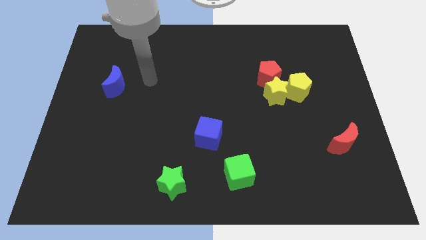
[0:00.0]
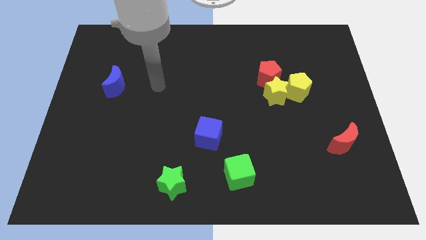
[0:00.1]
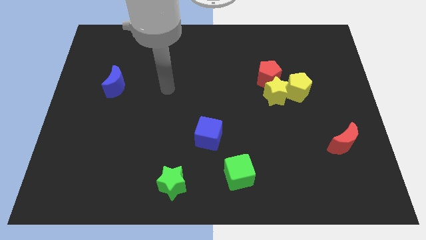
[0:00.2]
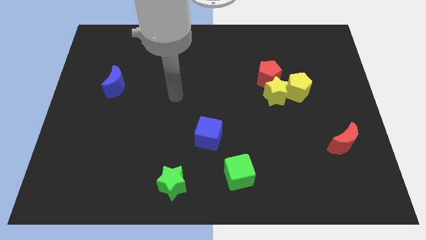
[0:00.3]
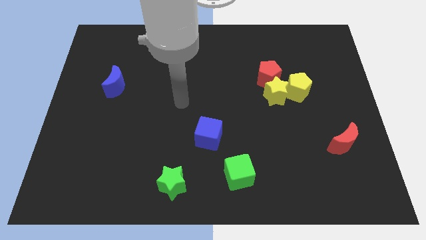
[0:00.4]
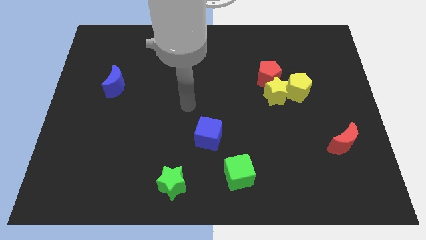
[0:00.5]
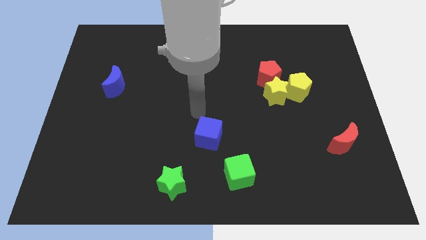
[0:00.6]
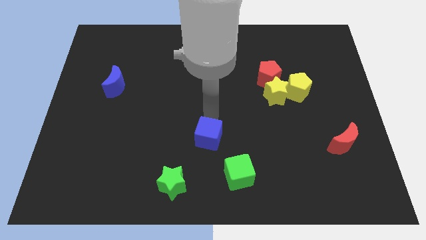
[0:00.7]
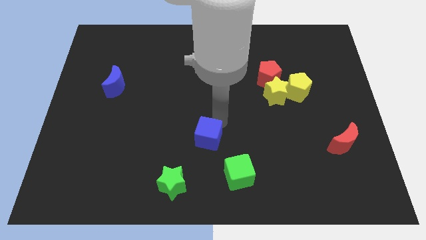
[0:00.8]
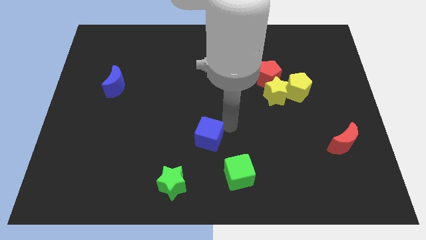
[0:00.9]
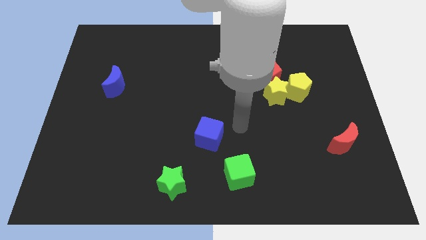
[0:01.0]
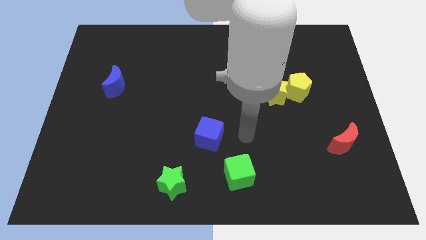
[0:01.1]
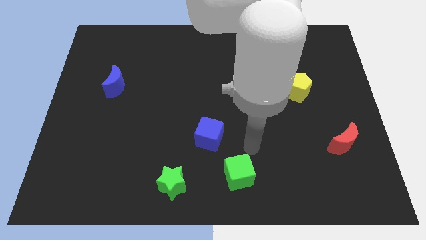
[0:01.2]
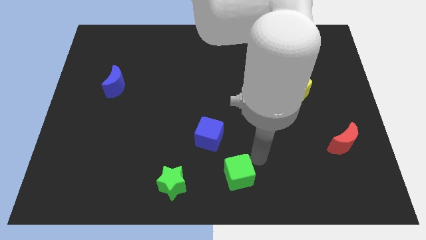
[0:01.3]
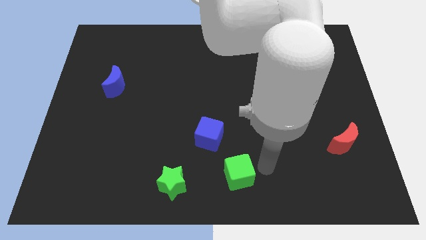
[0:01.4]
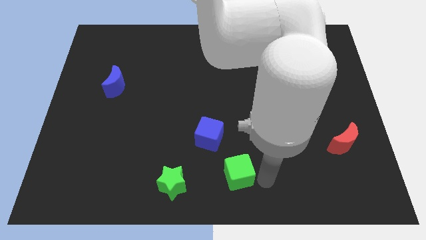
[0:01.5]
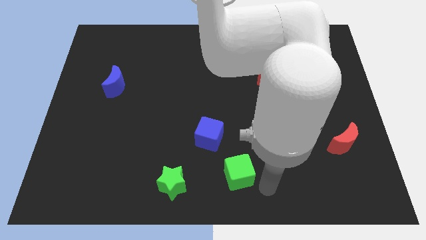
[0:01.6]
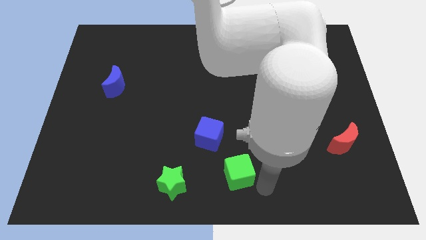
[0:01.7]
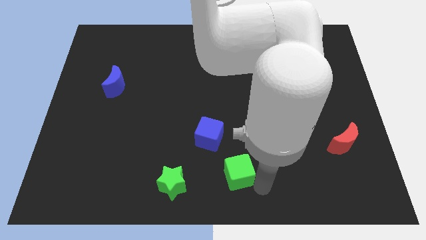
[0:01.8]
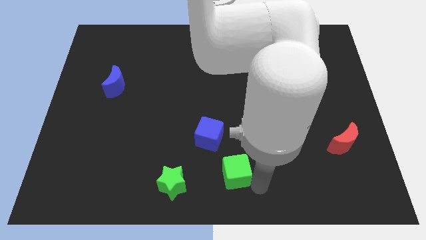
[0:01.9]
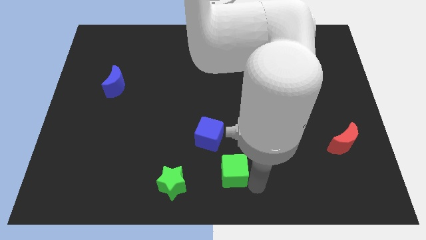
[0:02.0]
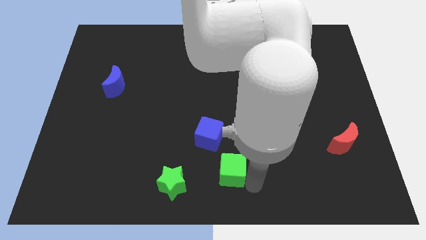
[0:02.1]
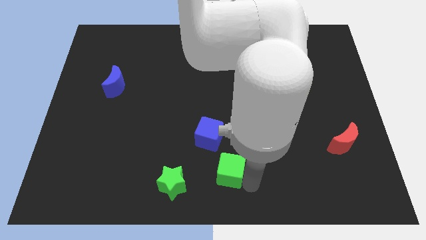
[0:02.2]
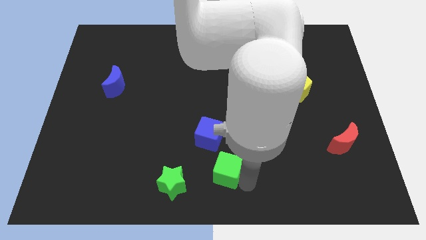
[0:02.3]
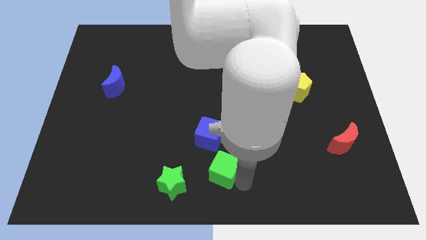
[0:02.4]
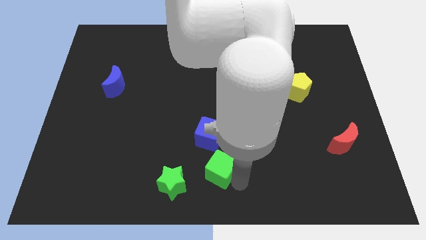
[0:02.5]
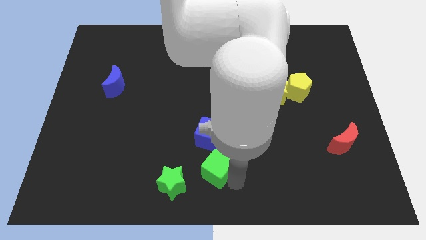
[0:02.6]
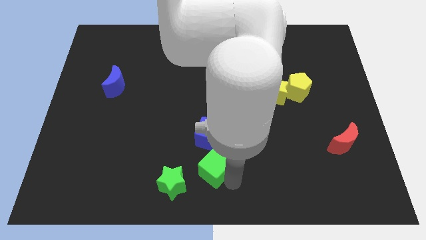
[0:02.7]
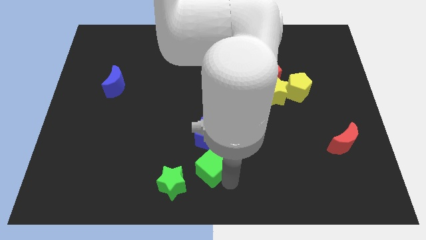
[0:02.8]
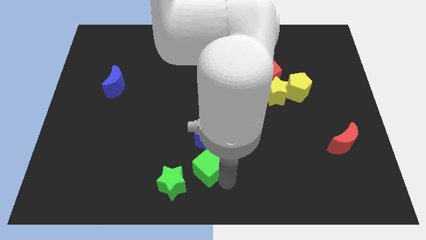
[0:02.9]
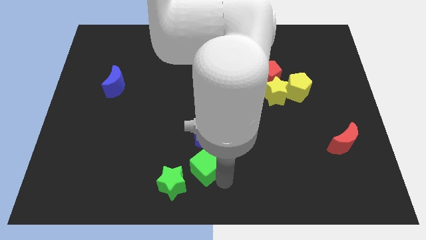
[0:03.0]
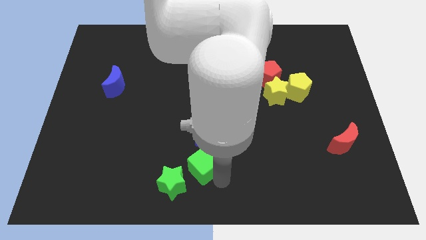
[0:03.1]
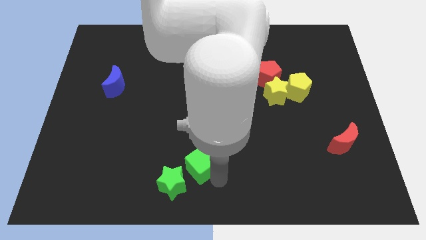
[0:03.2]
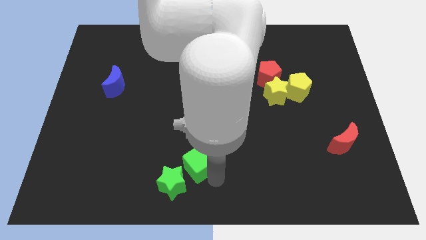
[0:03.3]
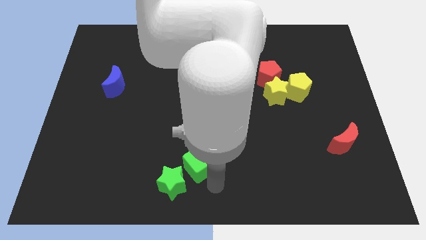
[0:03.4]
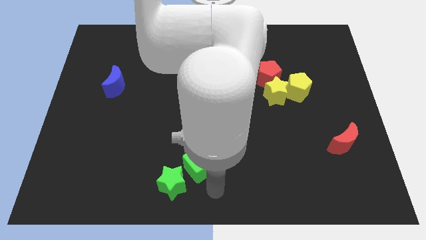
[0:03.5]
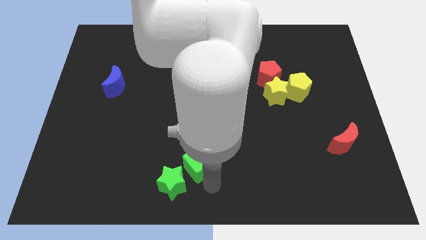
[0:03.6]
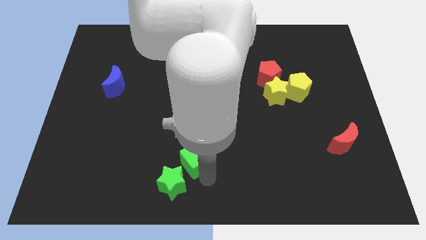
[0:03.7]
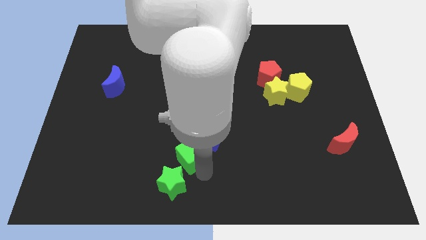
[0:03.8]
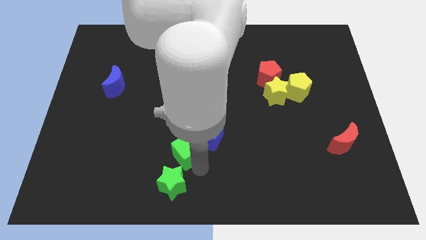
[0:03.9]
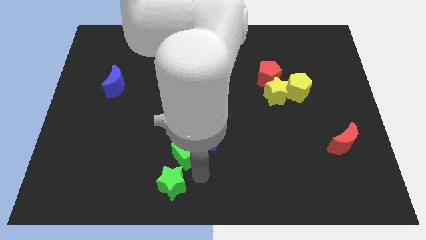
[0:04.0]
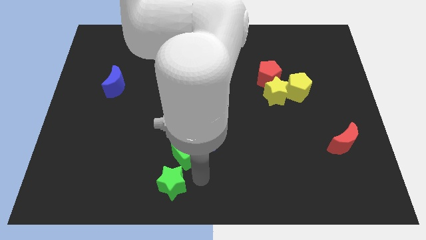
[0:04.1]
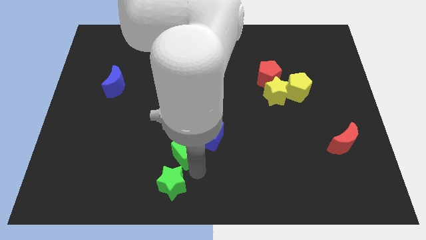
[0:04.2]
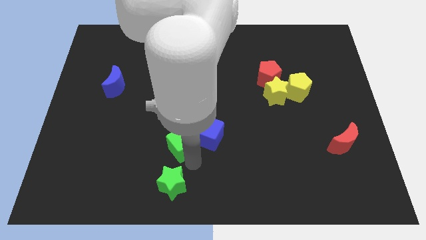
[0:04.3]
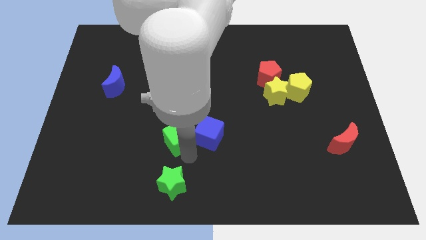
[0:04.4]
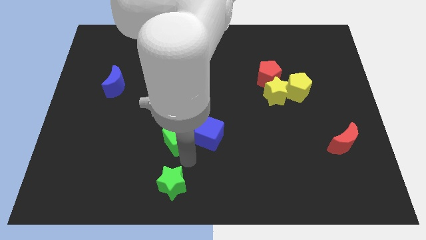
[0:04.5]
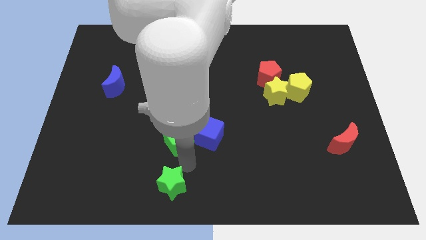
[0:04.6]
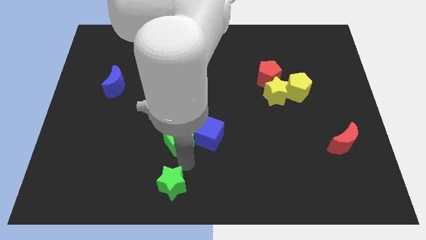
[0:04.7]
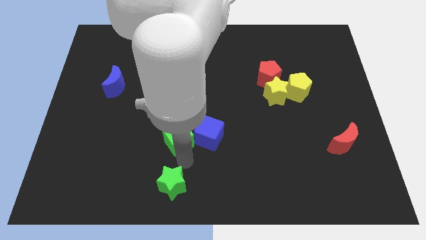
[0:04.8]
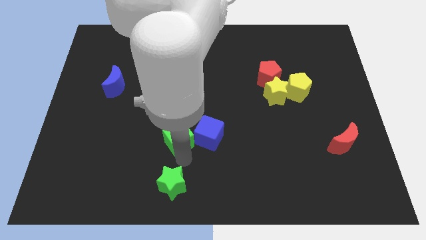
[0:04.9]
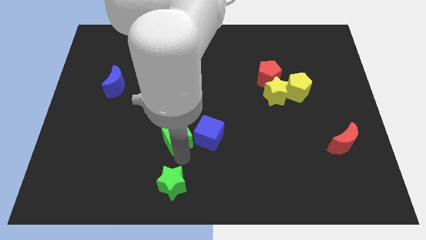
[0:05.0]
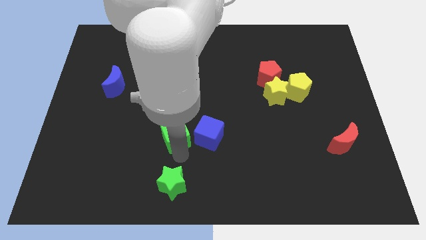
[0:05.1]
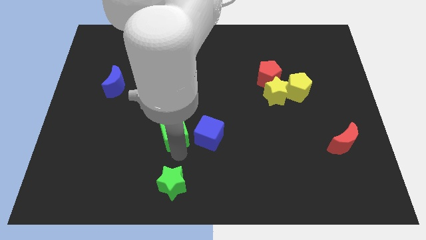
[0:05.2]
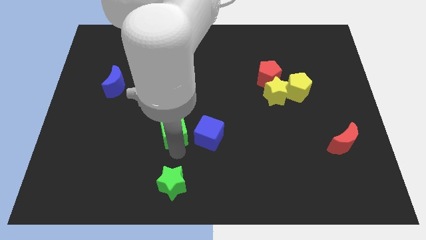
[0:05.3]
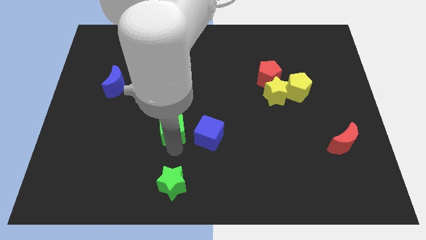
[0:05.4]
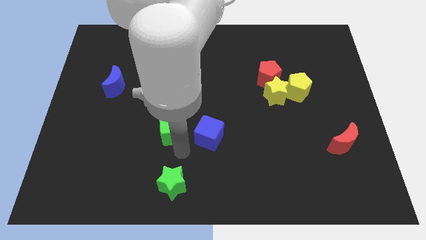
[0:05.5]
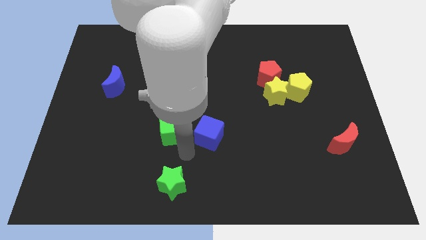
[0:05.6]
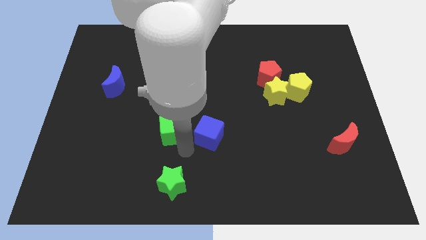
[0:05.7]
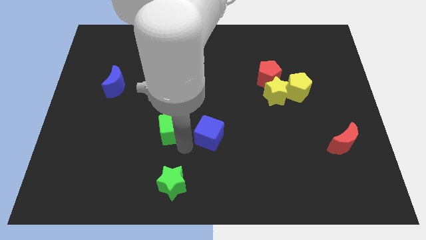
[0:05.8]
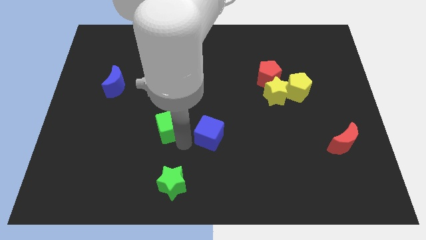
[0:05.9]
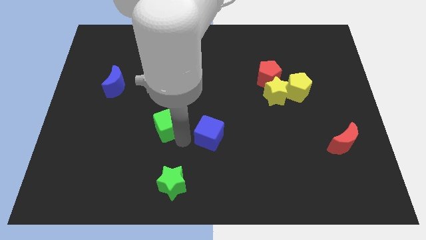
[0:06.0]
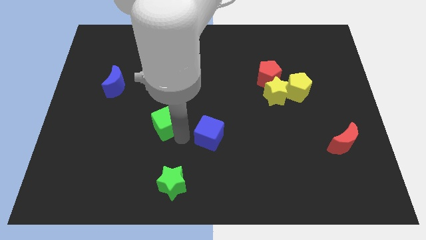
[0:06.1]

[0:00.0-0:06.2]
slide the green cube upwards and then to the left

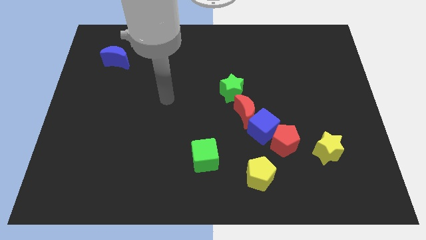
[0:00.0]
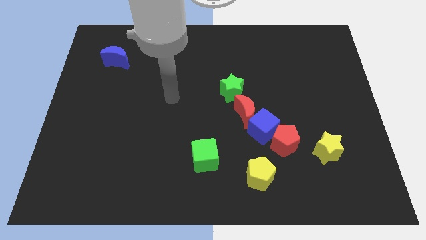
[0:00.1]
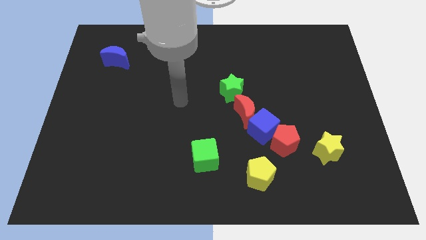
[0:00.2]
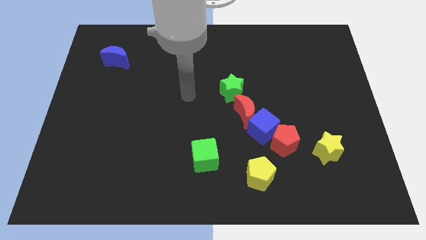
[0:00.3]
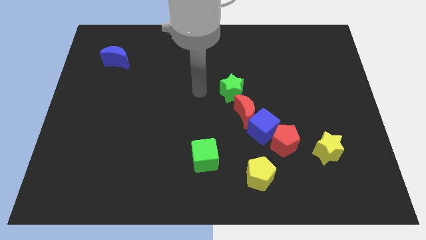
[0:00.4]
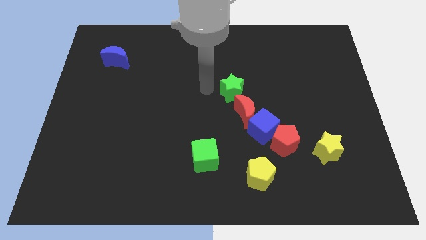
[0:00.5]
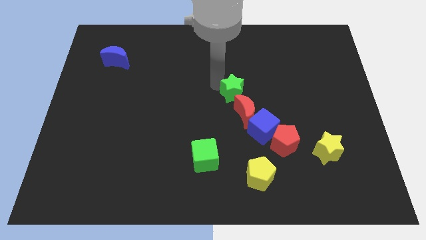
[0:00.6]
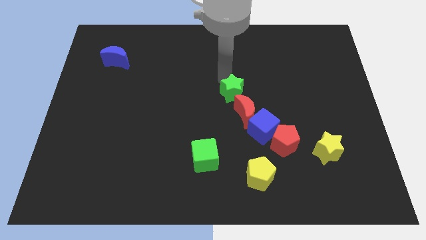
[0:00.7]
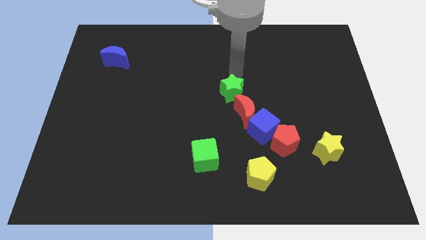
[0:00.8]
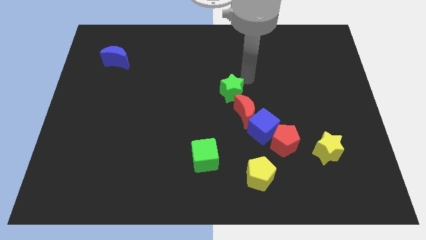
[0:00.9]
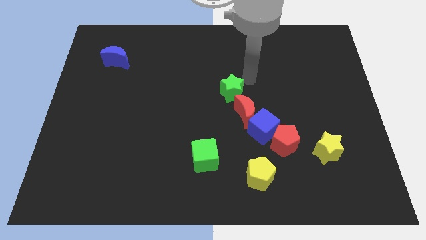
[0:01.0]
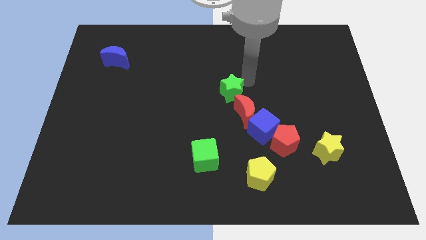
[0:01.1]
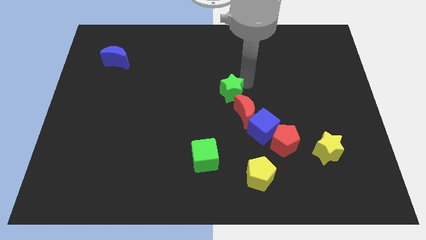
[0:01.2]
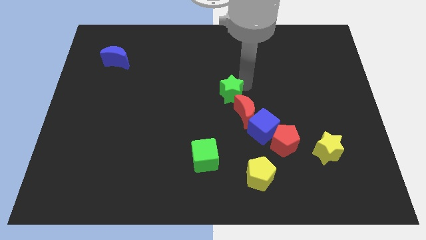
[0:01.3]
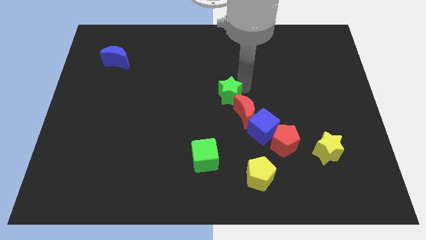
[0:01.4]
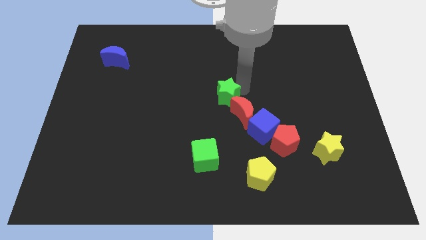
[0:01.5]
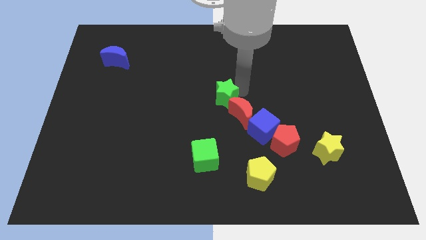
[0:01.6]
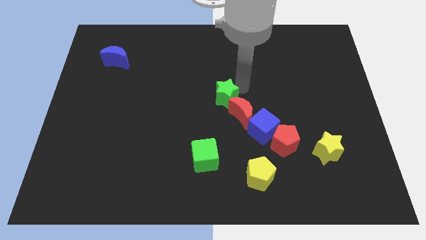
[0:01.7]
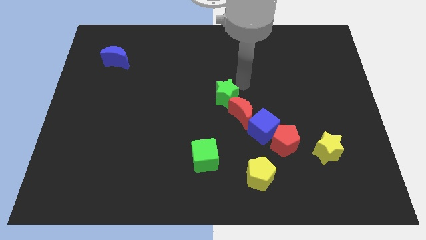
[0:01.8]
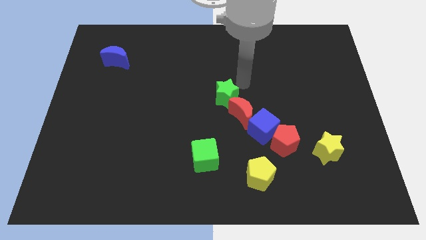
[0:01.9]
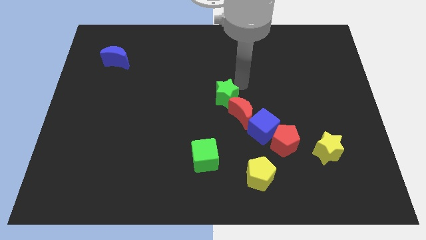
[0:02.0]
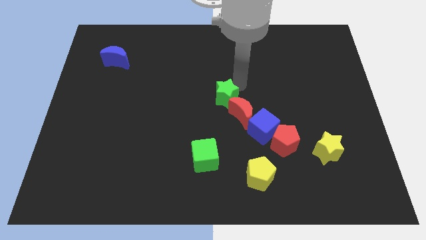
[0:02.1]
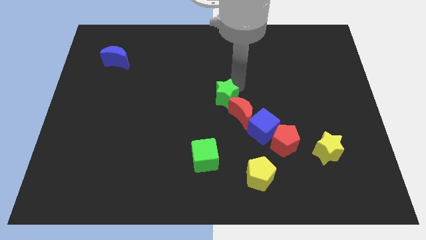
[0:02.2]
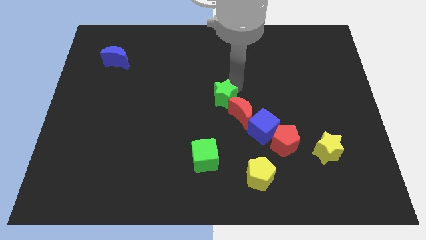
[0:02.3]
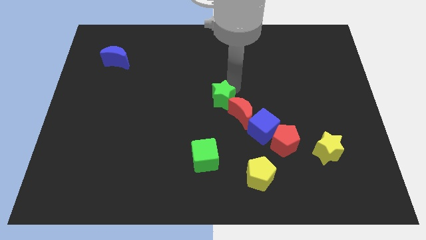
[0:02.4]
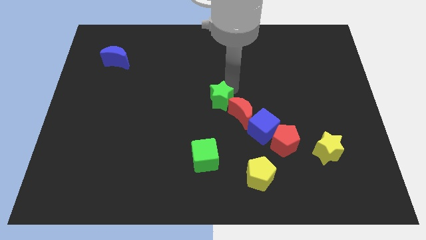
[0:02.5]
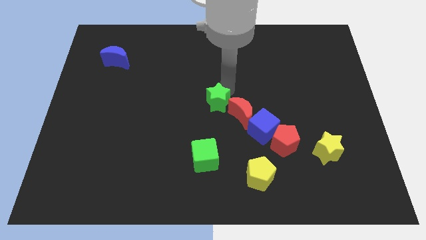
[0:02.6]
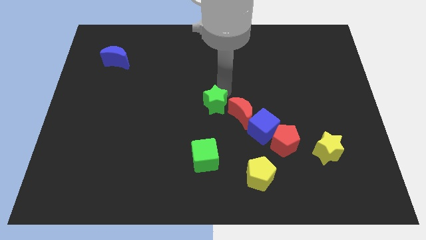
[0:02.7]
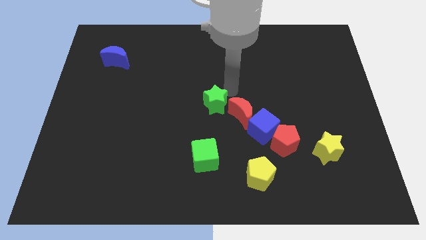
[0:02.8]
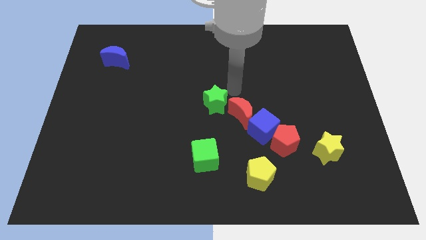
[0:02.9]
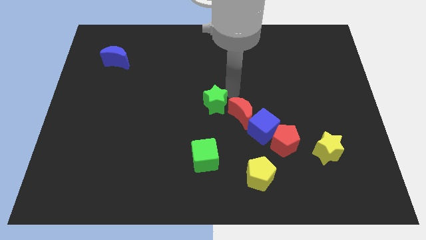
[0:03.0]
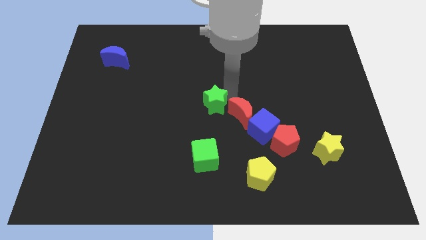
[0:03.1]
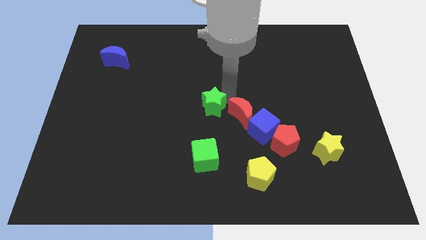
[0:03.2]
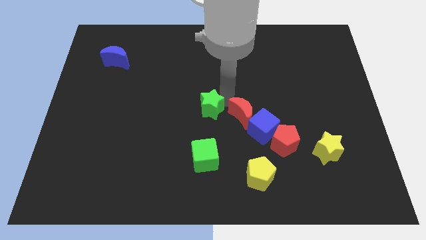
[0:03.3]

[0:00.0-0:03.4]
move the green star downwards and left slightly
